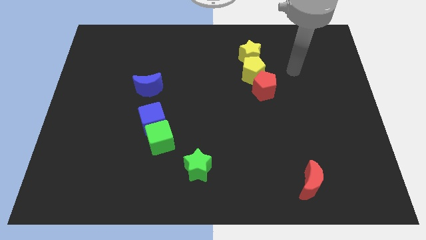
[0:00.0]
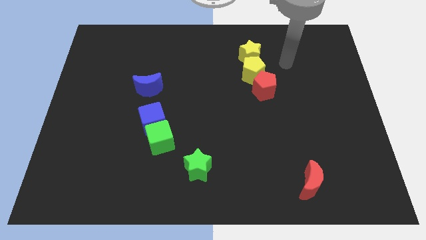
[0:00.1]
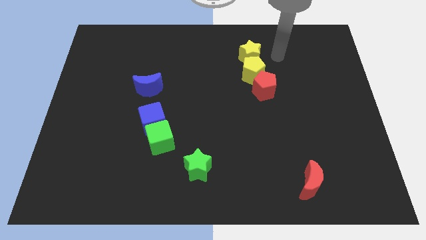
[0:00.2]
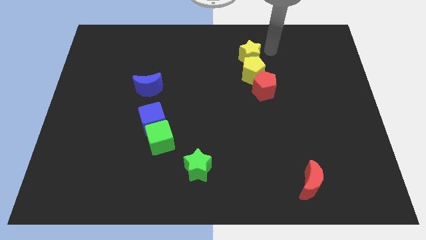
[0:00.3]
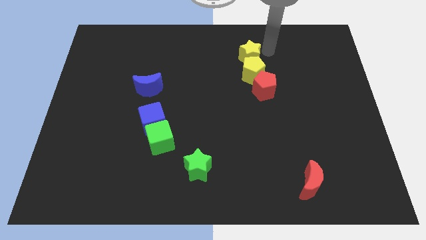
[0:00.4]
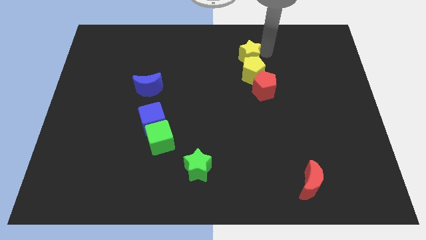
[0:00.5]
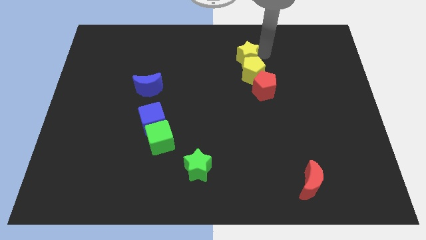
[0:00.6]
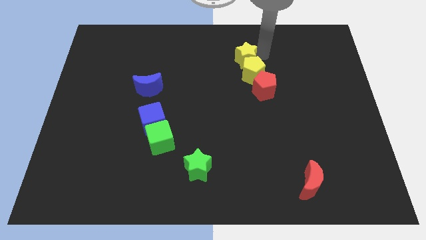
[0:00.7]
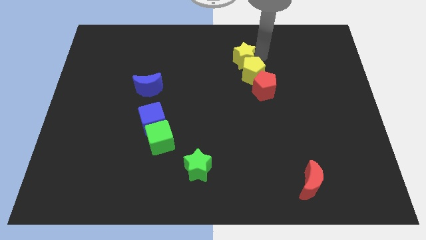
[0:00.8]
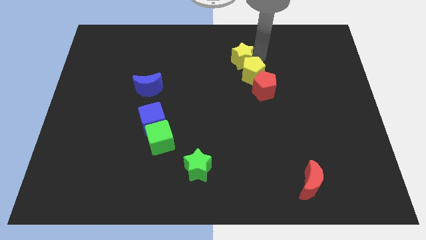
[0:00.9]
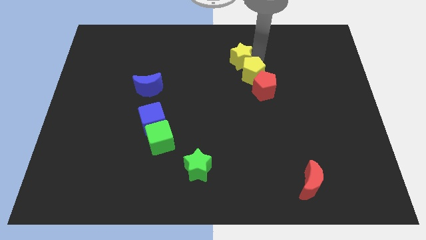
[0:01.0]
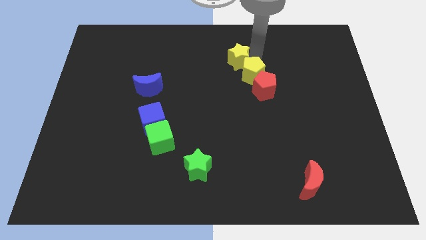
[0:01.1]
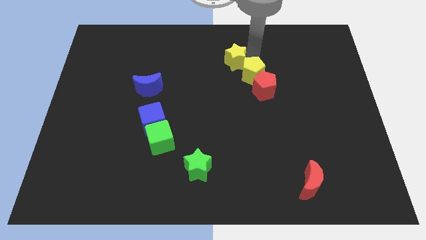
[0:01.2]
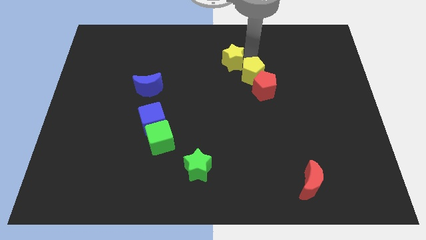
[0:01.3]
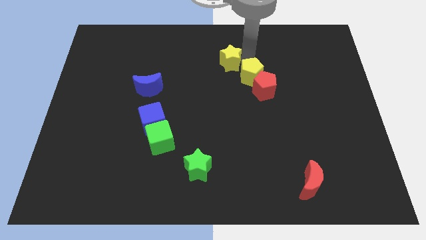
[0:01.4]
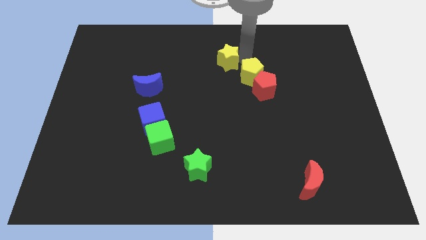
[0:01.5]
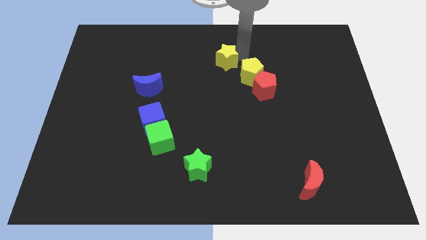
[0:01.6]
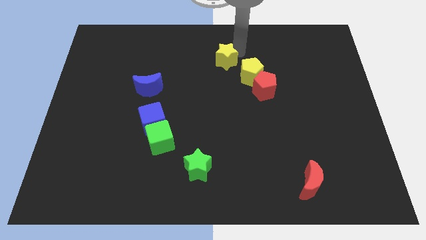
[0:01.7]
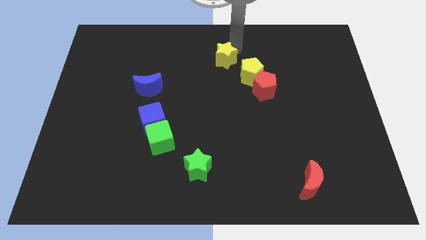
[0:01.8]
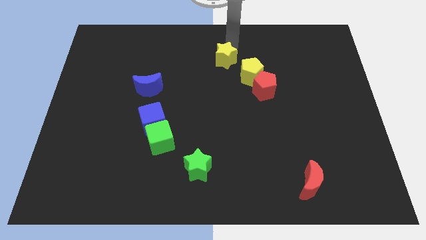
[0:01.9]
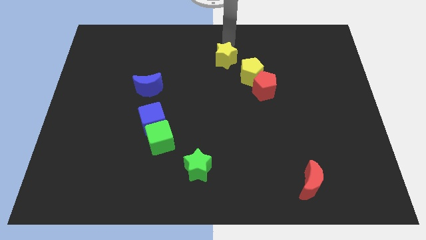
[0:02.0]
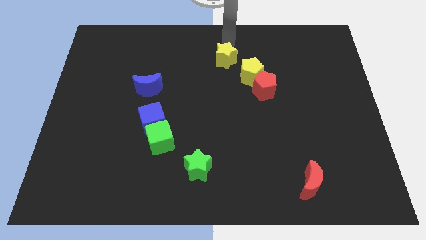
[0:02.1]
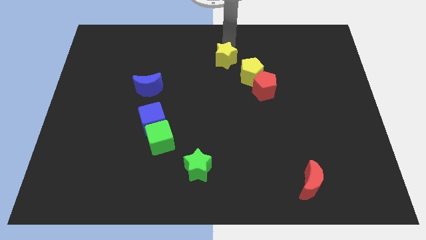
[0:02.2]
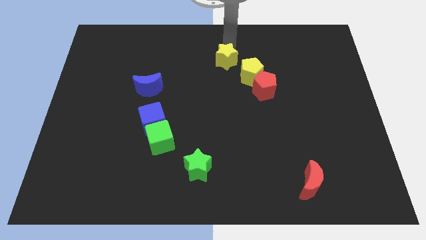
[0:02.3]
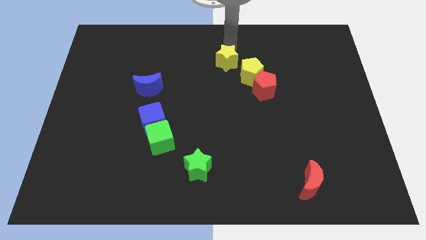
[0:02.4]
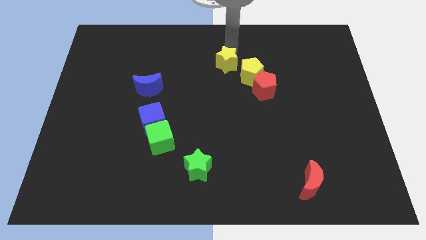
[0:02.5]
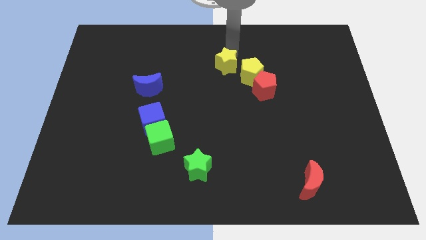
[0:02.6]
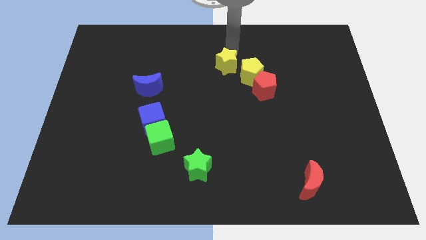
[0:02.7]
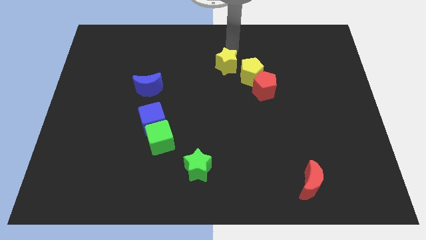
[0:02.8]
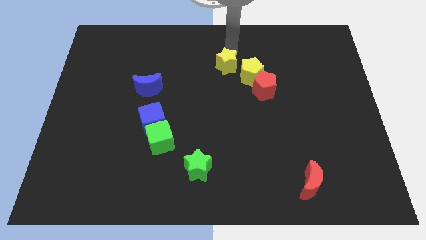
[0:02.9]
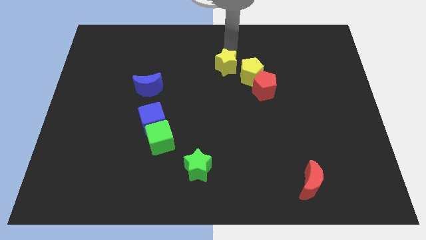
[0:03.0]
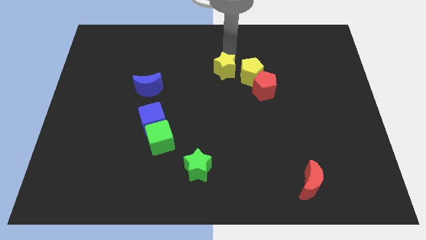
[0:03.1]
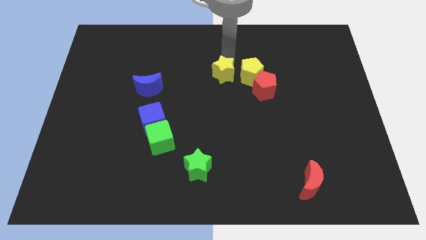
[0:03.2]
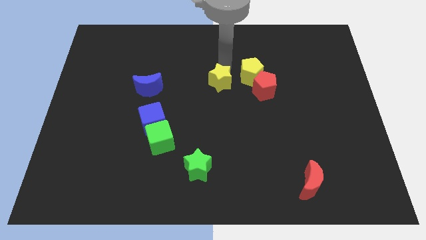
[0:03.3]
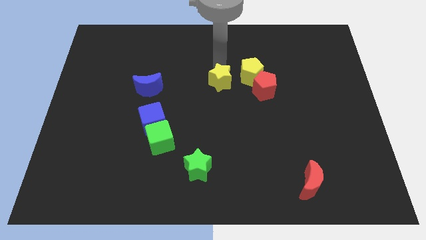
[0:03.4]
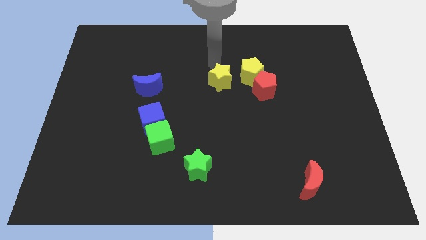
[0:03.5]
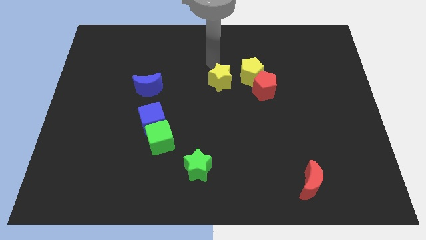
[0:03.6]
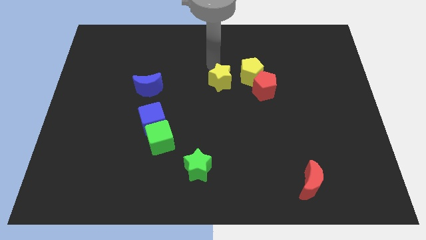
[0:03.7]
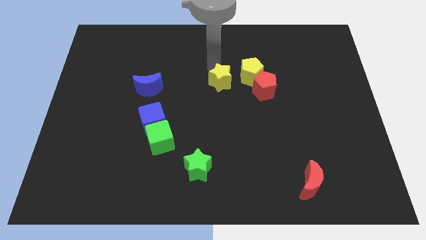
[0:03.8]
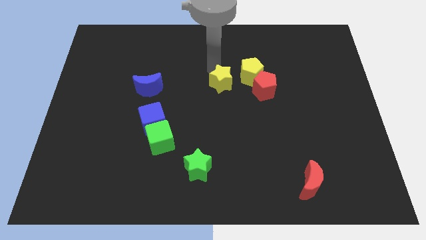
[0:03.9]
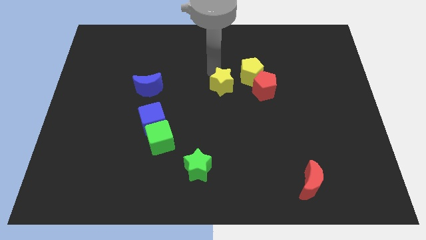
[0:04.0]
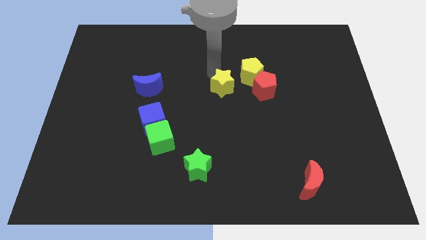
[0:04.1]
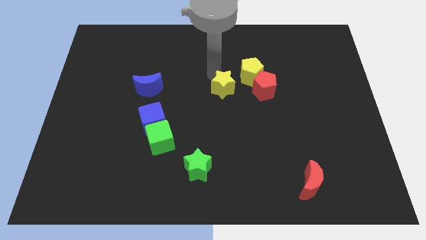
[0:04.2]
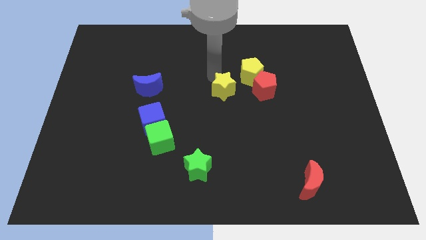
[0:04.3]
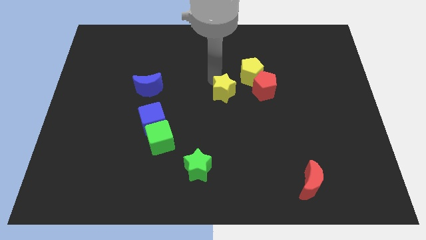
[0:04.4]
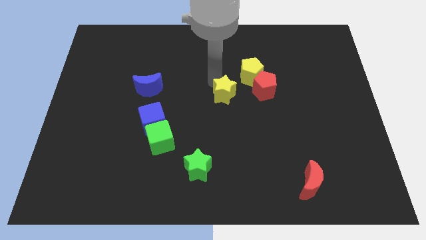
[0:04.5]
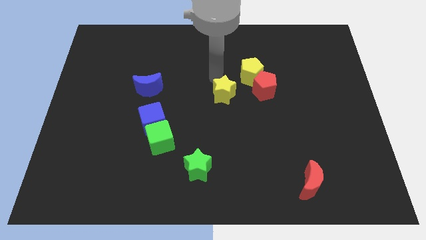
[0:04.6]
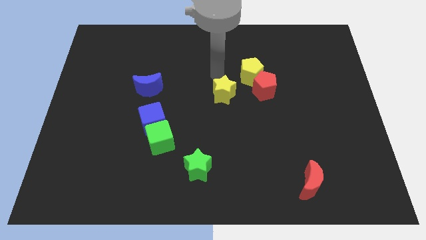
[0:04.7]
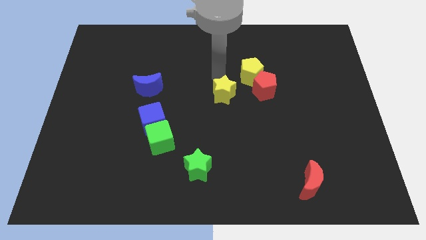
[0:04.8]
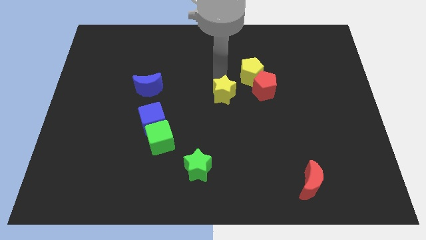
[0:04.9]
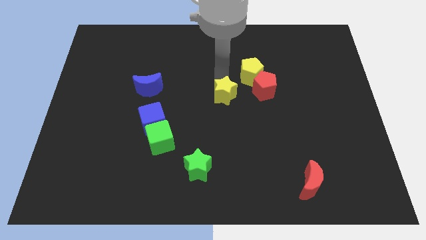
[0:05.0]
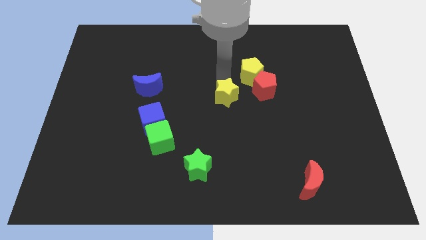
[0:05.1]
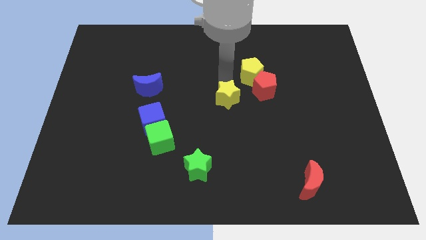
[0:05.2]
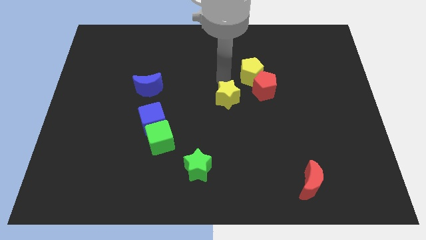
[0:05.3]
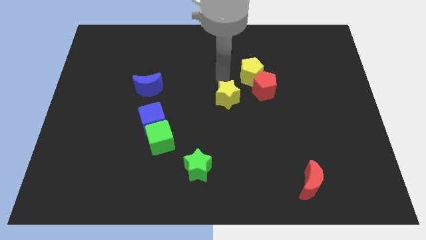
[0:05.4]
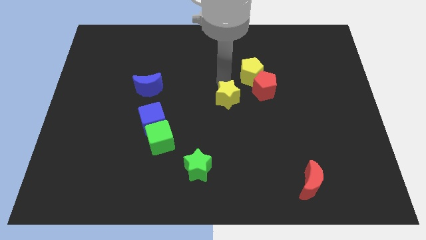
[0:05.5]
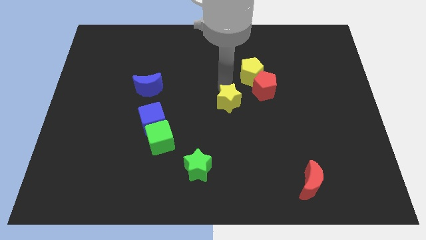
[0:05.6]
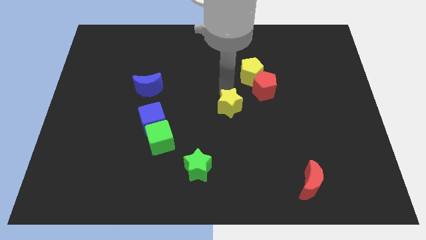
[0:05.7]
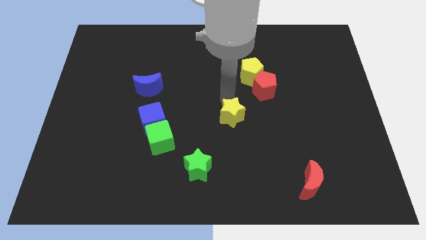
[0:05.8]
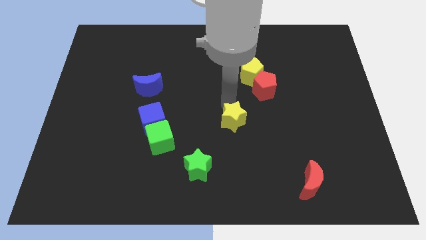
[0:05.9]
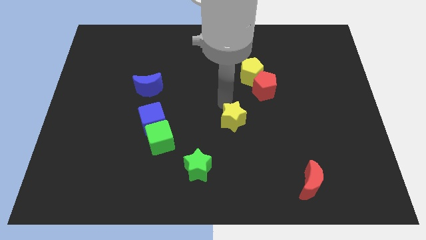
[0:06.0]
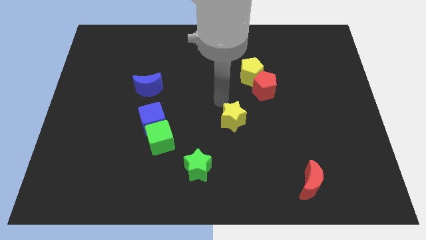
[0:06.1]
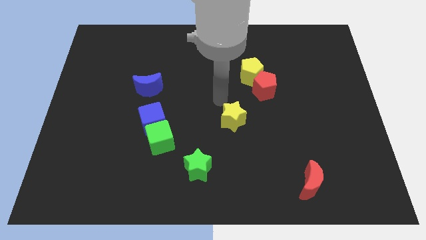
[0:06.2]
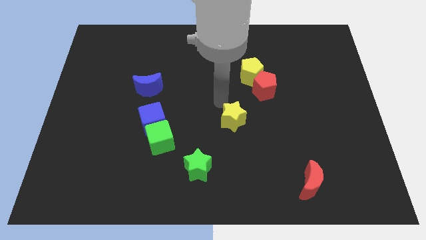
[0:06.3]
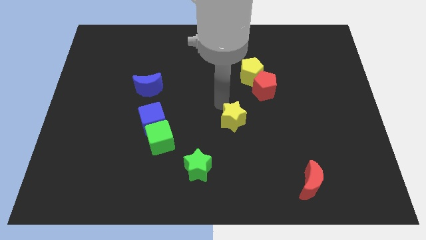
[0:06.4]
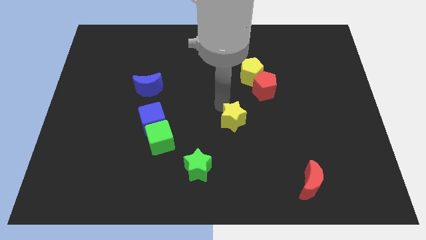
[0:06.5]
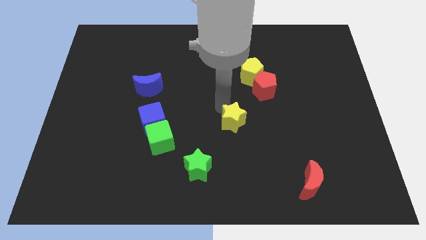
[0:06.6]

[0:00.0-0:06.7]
slide the yellow star down

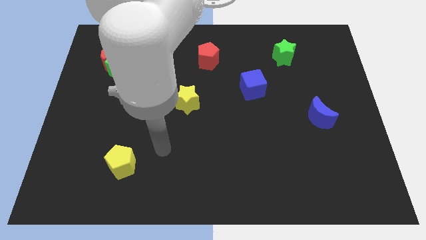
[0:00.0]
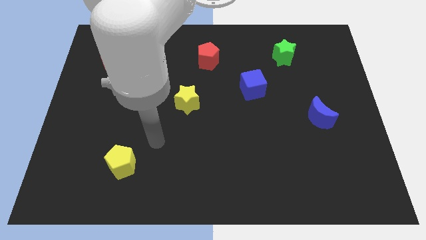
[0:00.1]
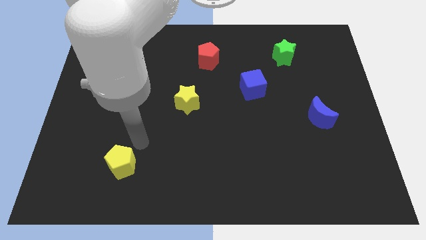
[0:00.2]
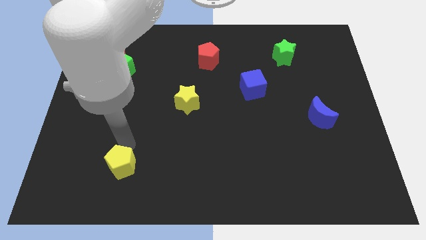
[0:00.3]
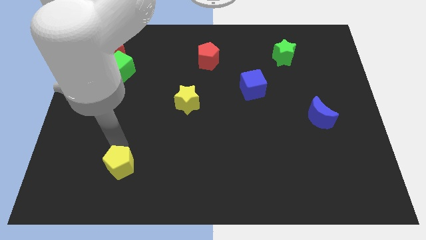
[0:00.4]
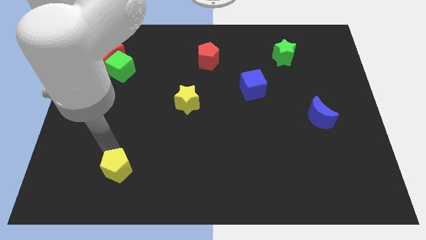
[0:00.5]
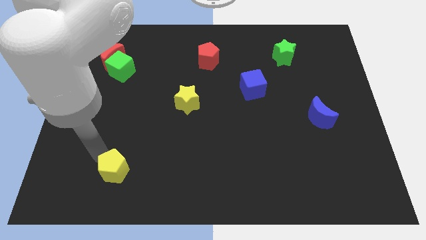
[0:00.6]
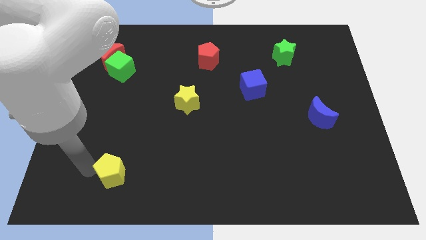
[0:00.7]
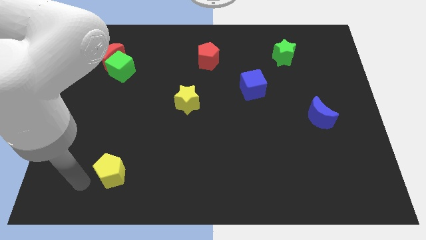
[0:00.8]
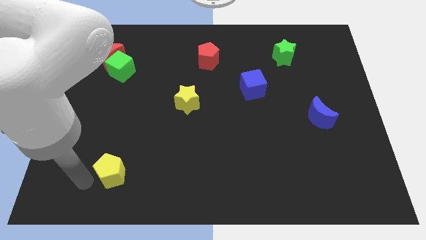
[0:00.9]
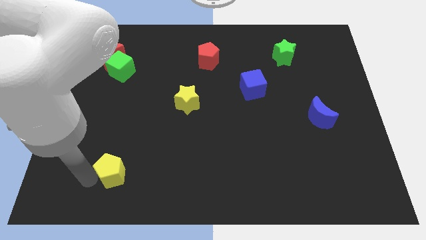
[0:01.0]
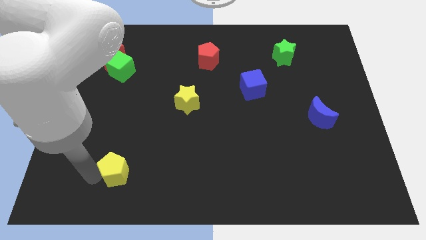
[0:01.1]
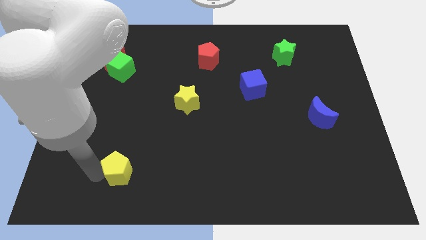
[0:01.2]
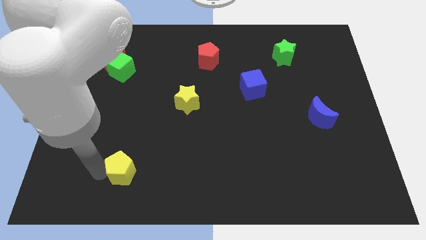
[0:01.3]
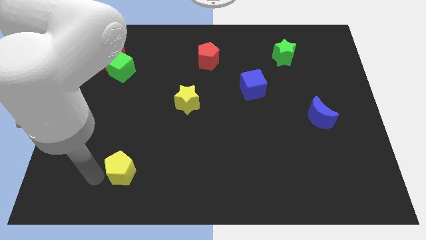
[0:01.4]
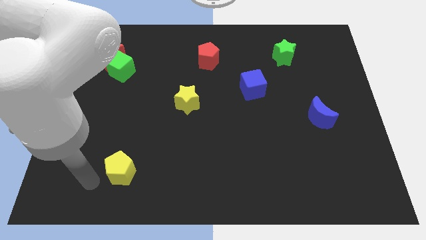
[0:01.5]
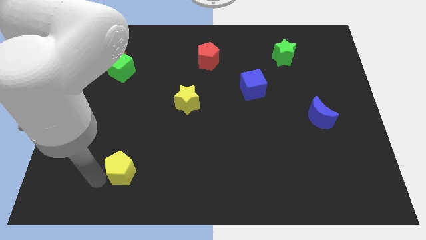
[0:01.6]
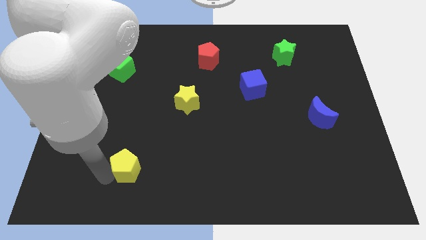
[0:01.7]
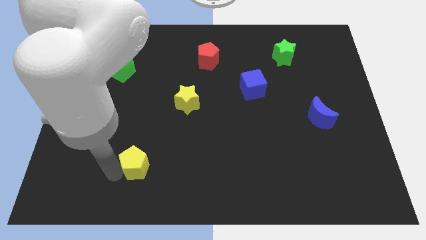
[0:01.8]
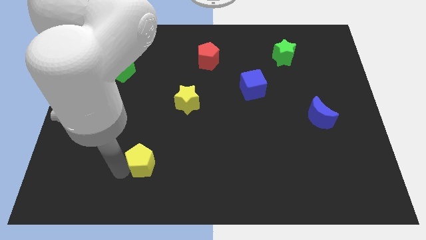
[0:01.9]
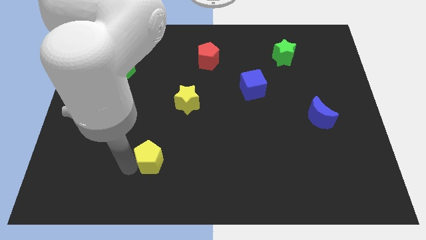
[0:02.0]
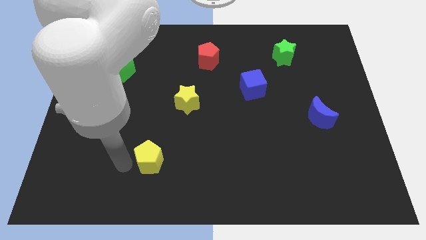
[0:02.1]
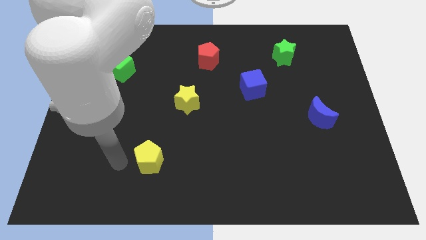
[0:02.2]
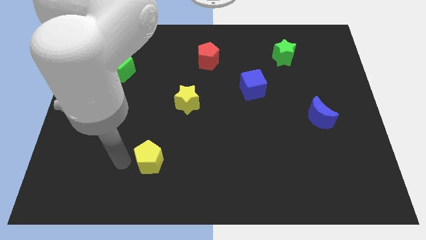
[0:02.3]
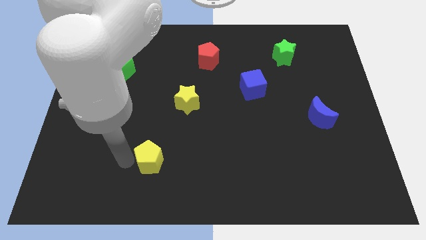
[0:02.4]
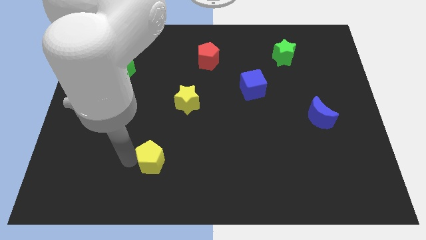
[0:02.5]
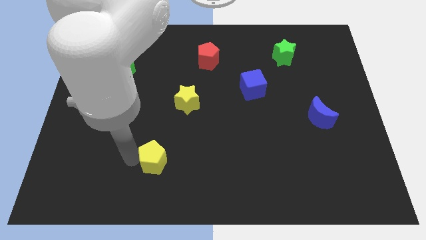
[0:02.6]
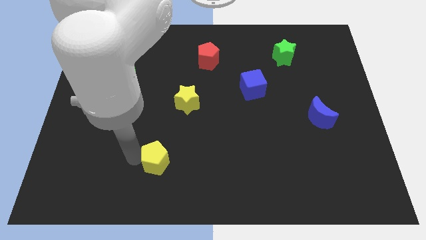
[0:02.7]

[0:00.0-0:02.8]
move the yellow pentagon a little to the right
